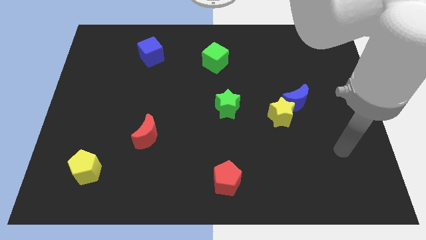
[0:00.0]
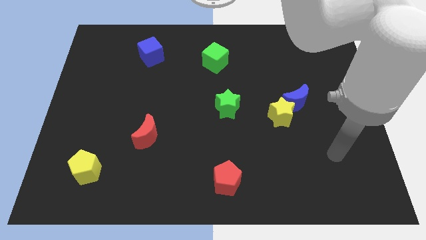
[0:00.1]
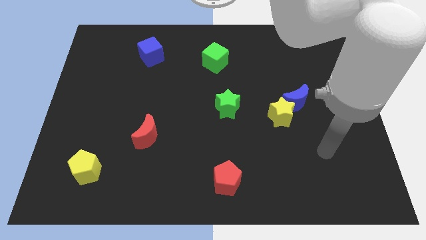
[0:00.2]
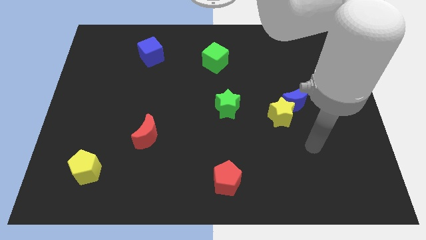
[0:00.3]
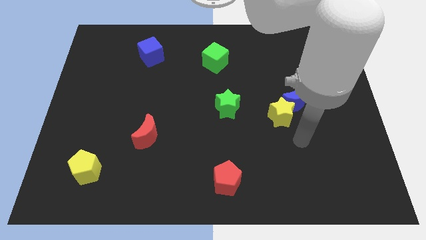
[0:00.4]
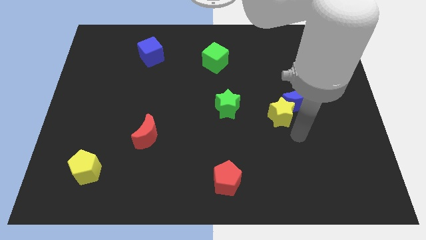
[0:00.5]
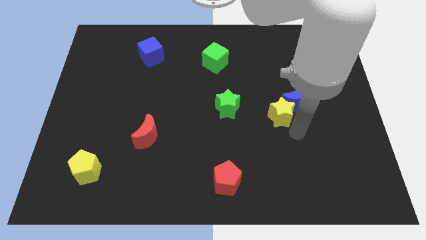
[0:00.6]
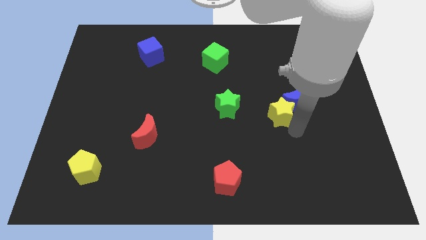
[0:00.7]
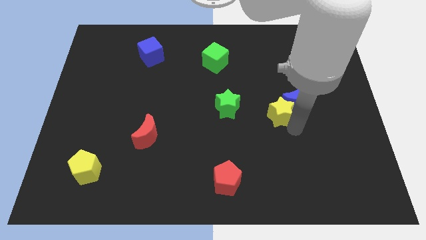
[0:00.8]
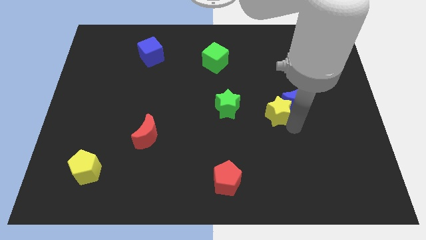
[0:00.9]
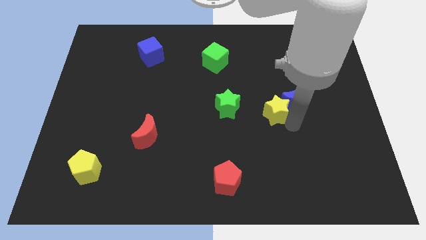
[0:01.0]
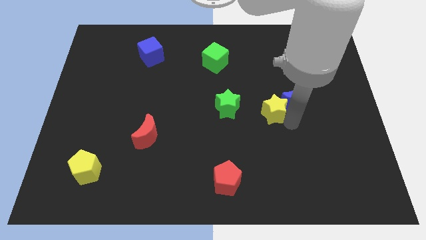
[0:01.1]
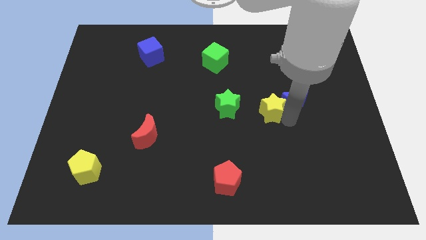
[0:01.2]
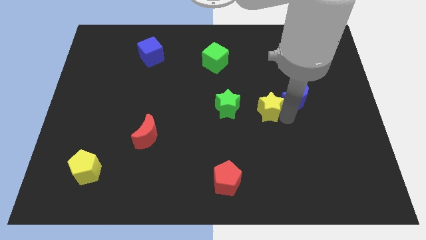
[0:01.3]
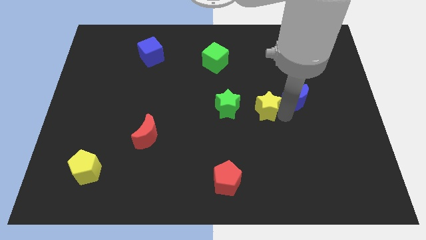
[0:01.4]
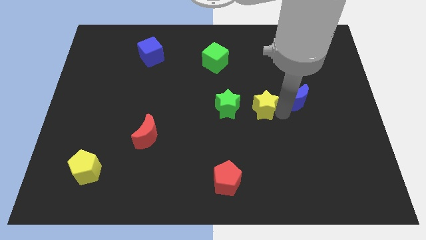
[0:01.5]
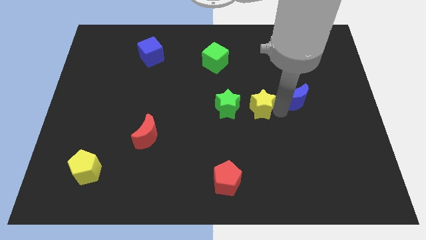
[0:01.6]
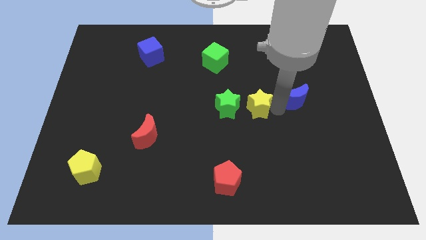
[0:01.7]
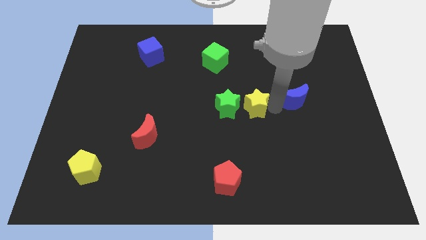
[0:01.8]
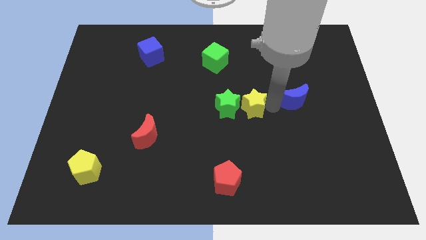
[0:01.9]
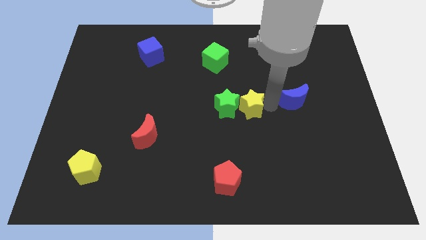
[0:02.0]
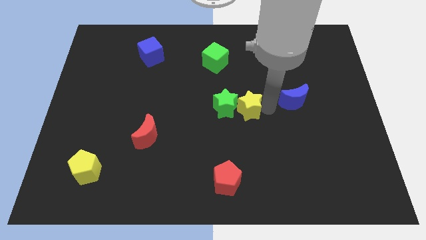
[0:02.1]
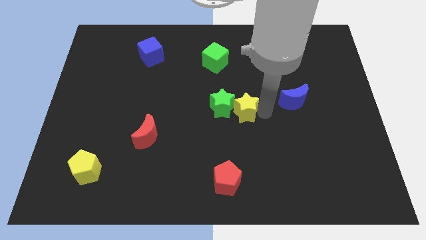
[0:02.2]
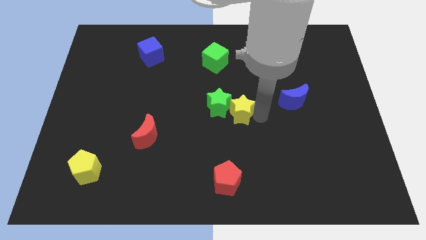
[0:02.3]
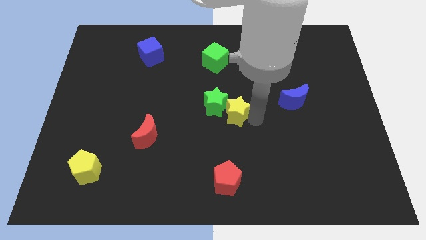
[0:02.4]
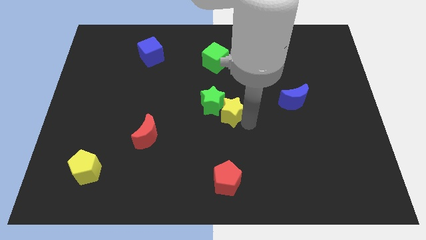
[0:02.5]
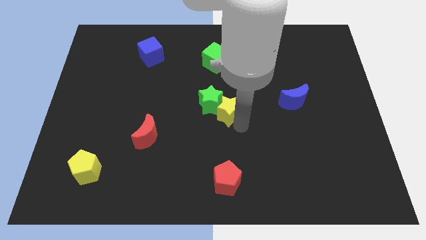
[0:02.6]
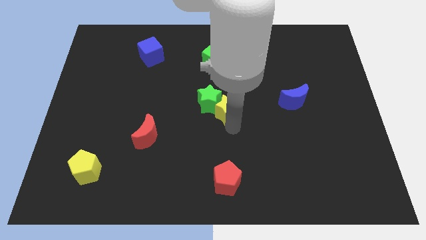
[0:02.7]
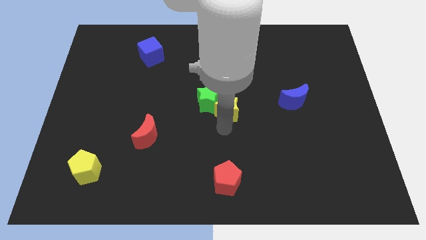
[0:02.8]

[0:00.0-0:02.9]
slightly move the yellow star upwards and left diagonally

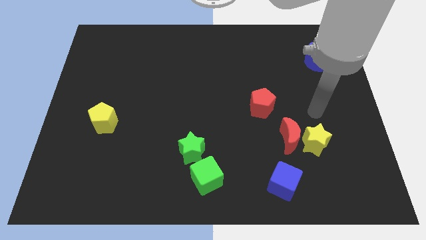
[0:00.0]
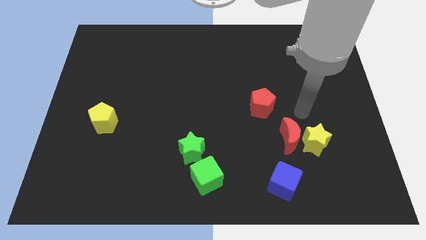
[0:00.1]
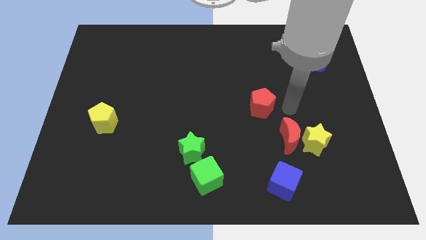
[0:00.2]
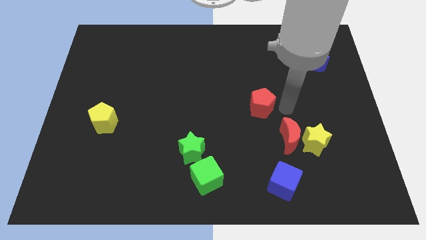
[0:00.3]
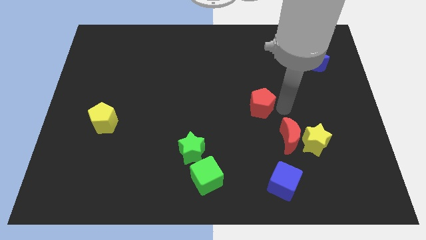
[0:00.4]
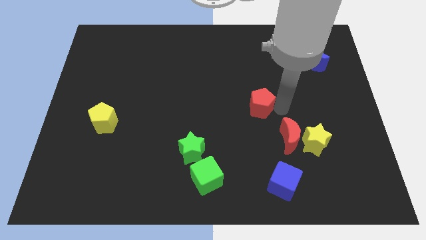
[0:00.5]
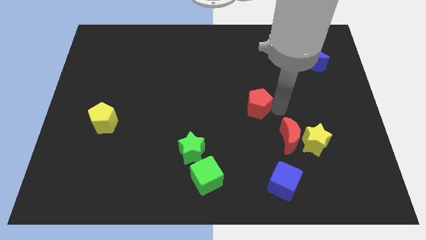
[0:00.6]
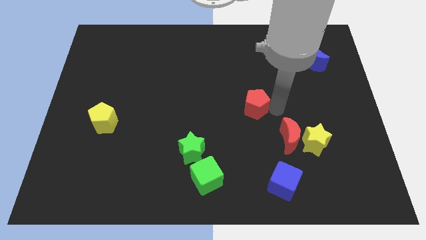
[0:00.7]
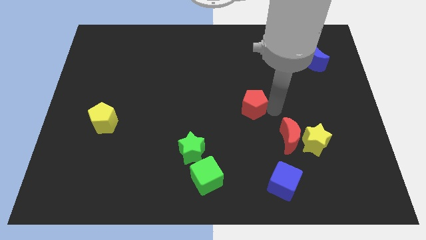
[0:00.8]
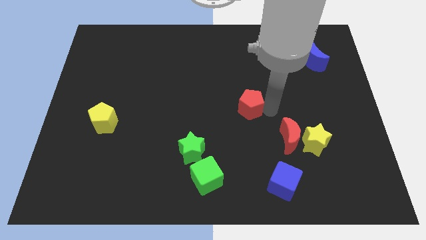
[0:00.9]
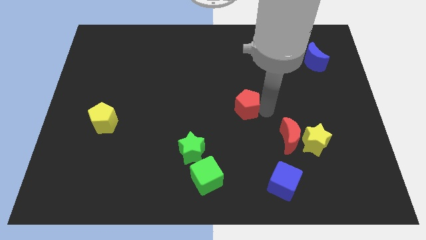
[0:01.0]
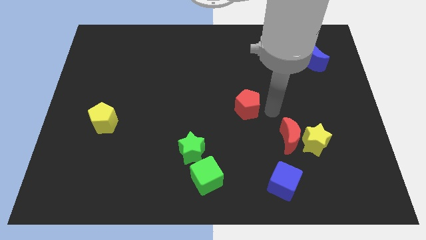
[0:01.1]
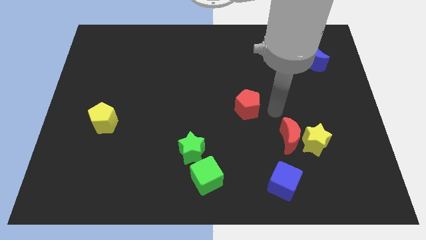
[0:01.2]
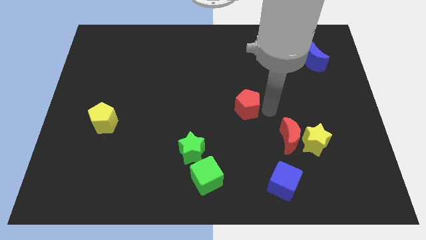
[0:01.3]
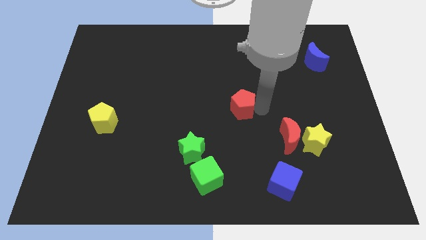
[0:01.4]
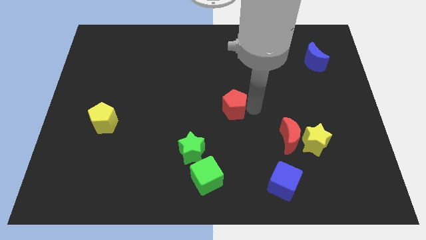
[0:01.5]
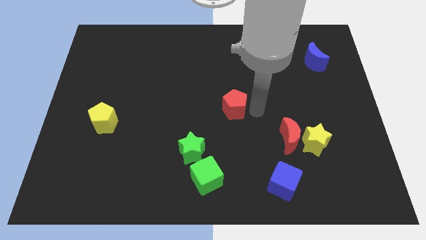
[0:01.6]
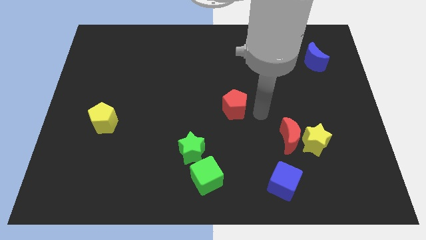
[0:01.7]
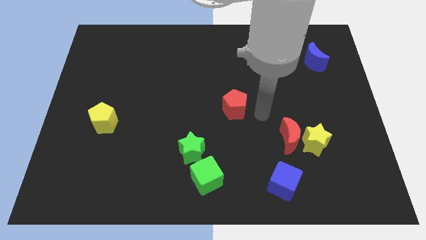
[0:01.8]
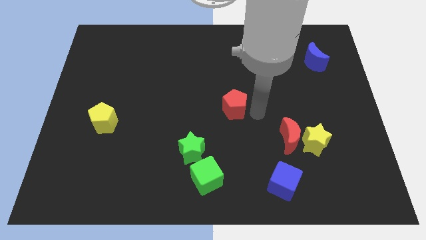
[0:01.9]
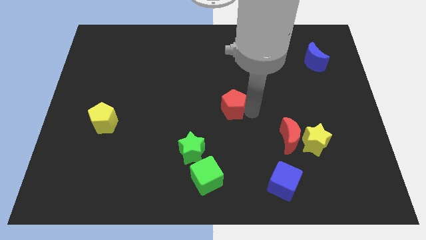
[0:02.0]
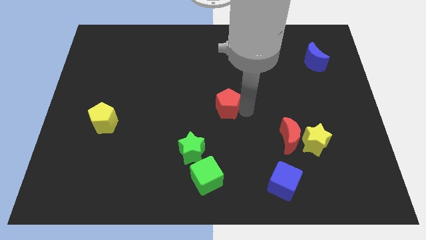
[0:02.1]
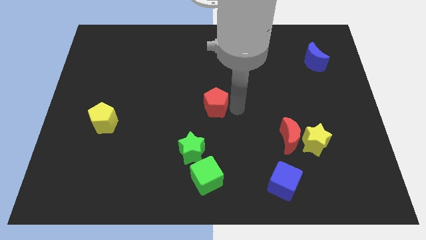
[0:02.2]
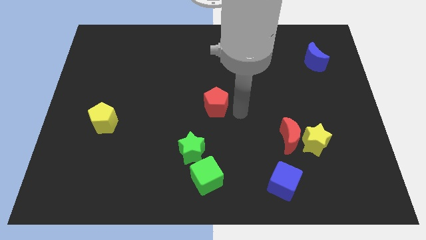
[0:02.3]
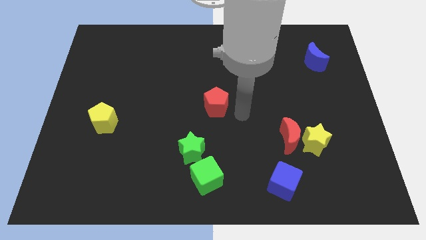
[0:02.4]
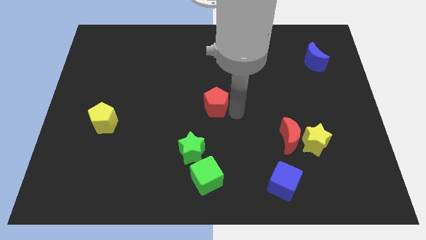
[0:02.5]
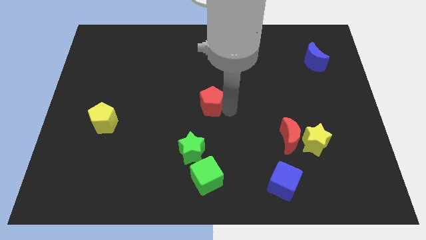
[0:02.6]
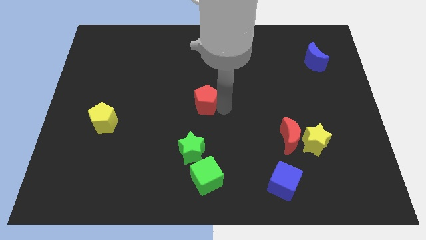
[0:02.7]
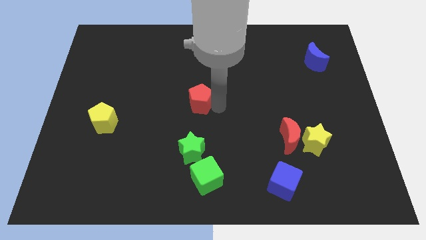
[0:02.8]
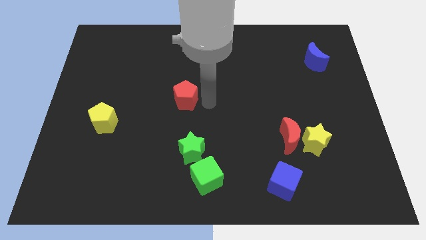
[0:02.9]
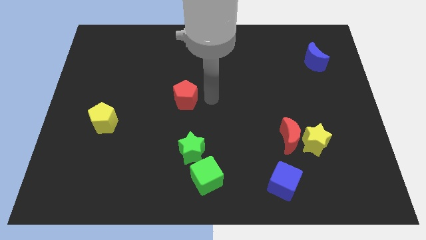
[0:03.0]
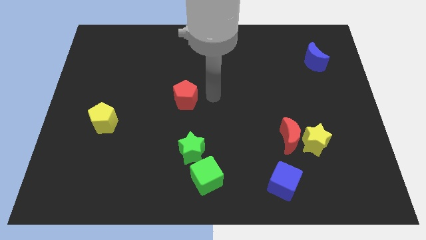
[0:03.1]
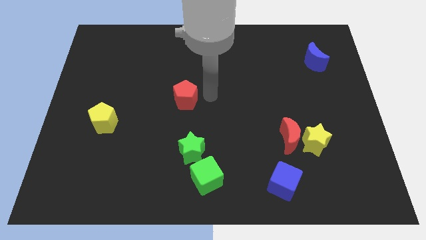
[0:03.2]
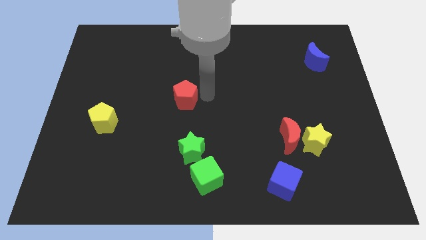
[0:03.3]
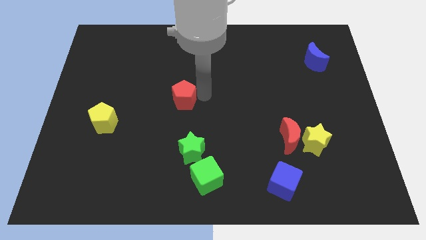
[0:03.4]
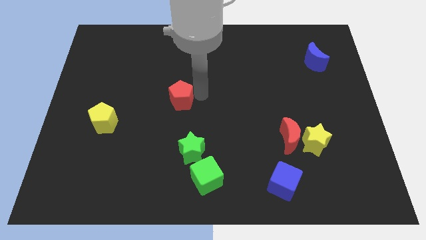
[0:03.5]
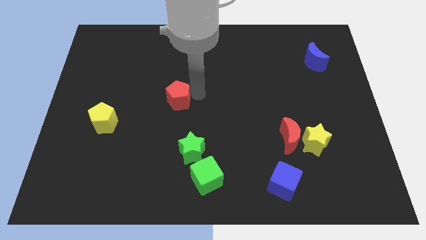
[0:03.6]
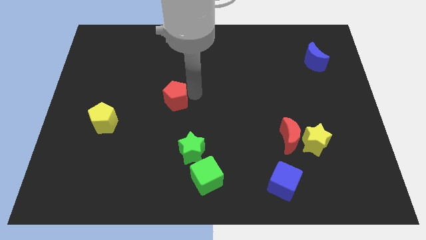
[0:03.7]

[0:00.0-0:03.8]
slide the red pentagon left

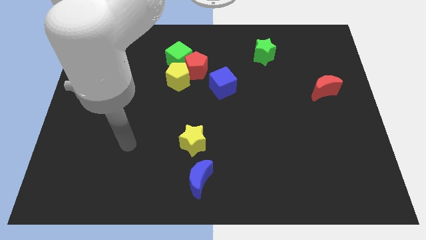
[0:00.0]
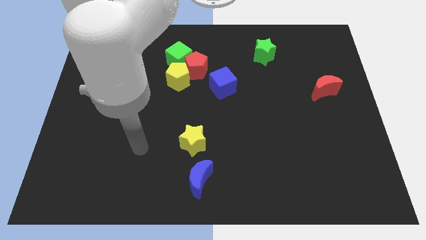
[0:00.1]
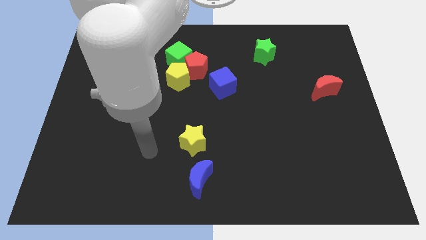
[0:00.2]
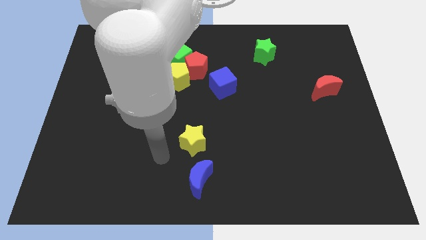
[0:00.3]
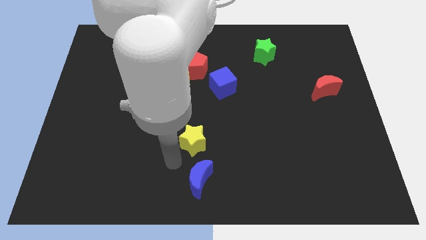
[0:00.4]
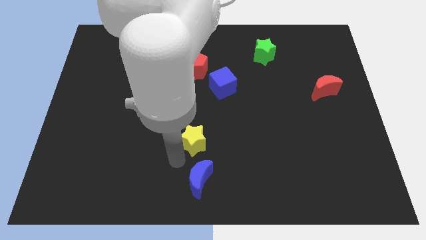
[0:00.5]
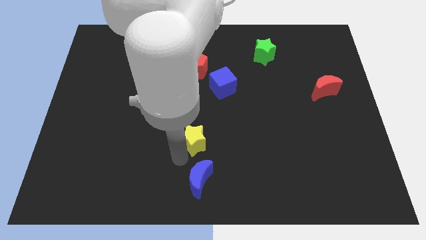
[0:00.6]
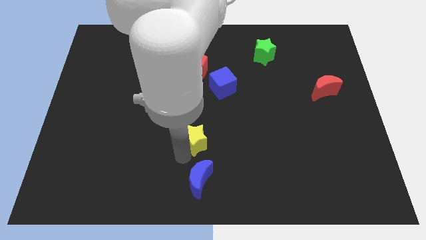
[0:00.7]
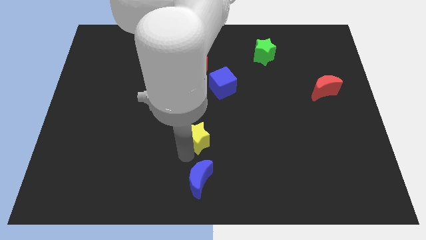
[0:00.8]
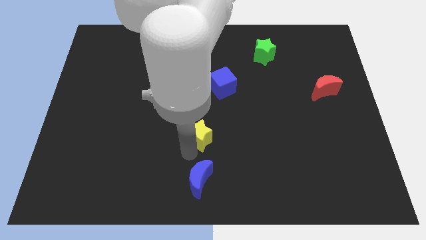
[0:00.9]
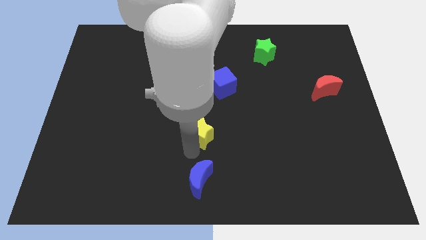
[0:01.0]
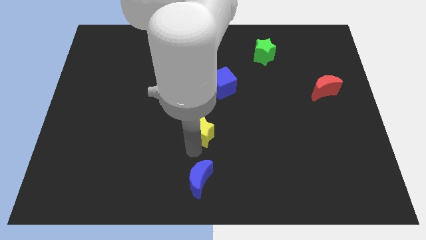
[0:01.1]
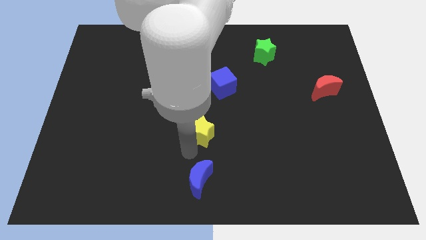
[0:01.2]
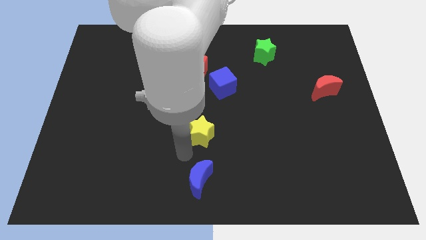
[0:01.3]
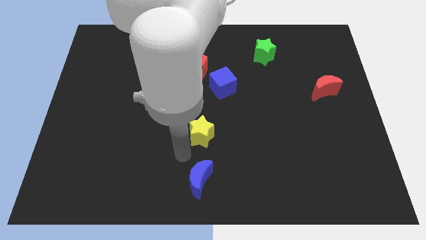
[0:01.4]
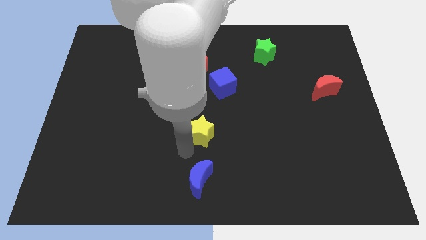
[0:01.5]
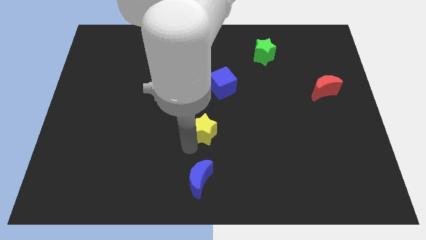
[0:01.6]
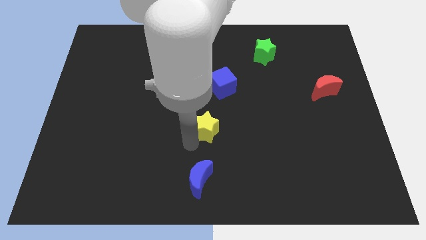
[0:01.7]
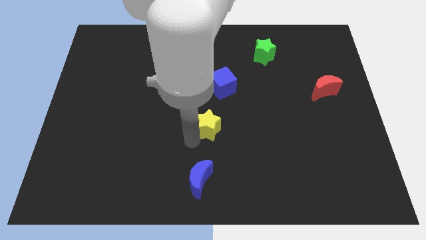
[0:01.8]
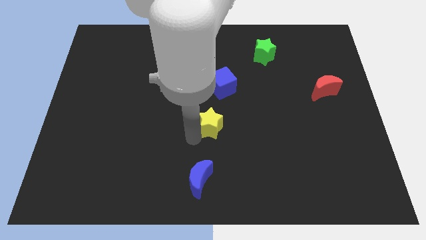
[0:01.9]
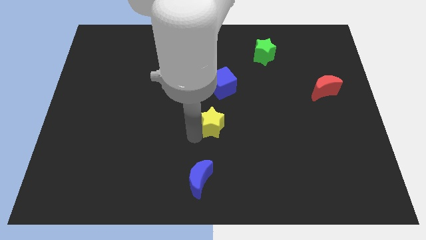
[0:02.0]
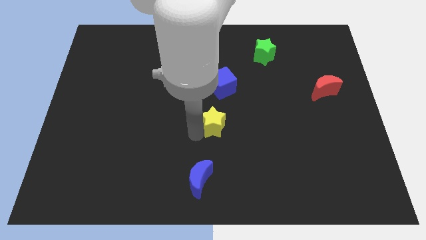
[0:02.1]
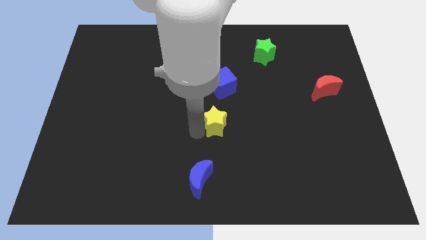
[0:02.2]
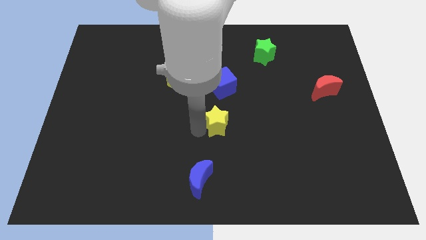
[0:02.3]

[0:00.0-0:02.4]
slide the yellow star up and to the right somewhat
